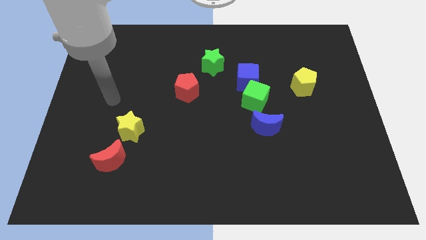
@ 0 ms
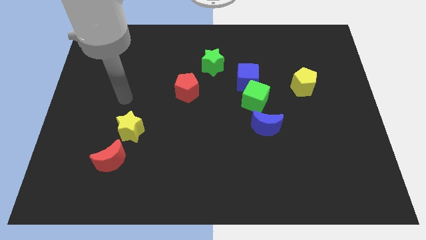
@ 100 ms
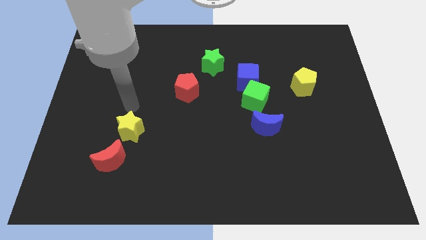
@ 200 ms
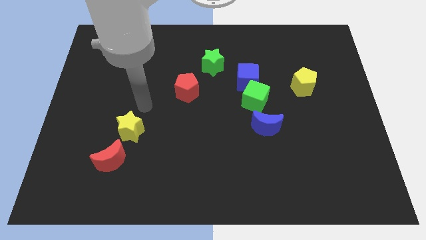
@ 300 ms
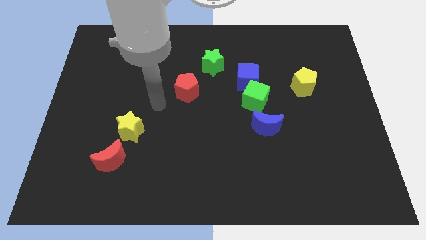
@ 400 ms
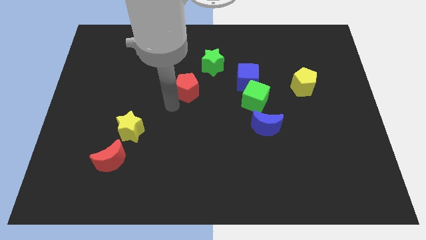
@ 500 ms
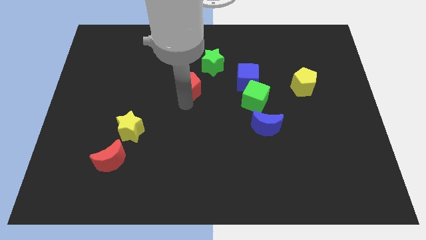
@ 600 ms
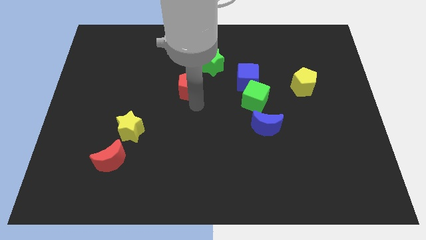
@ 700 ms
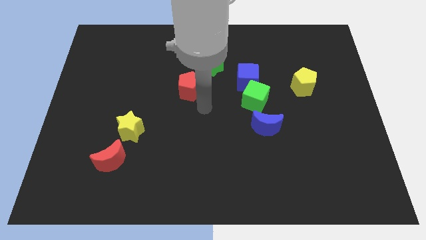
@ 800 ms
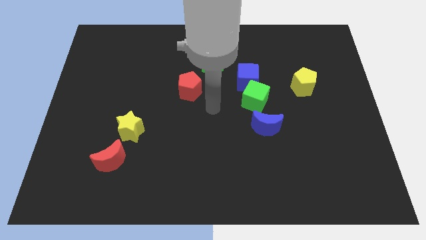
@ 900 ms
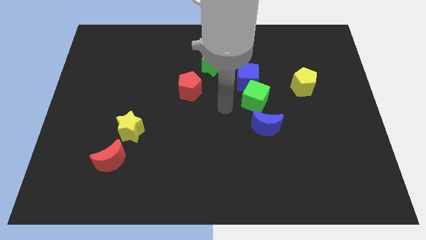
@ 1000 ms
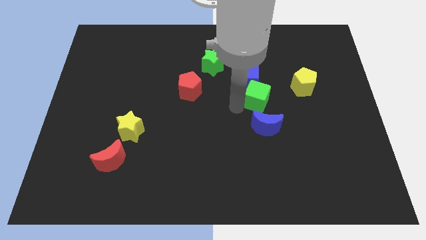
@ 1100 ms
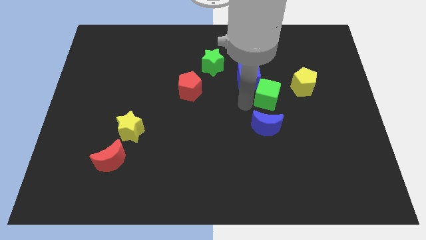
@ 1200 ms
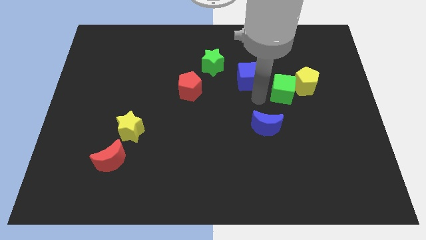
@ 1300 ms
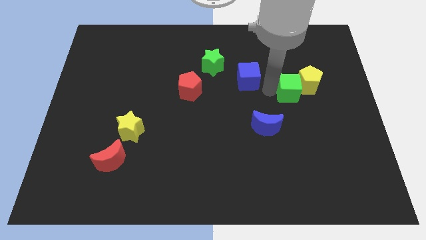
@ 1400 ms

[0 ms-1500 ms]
separate the blue cube from the green cube

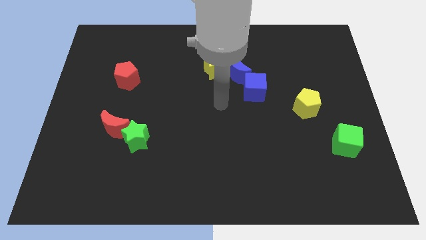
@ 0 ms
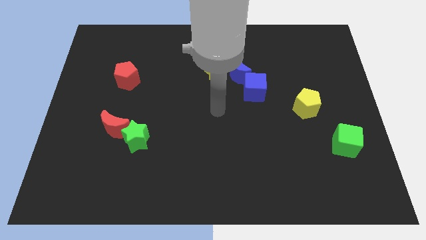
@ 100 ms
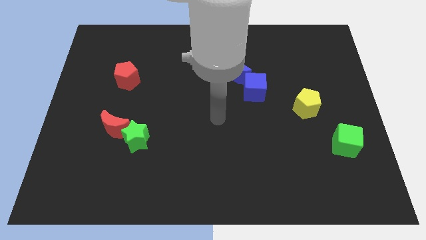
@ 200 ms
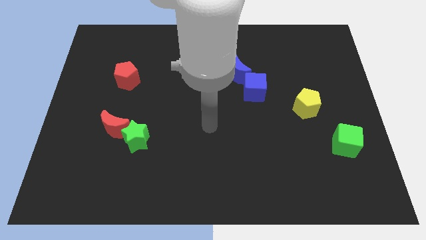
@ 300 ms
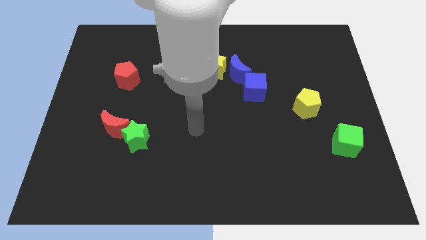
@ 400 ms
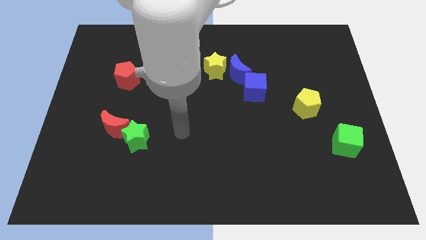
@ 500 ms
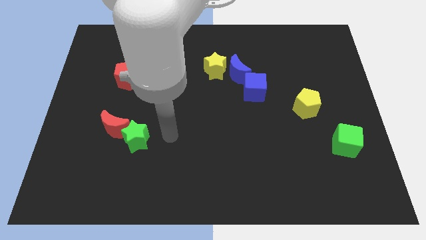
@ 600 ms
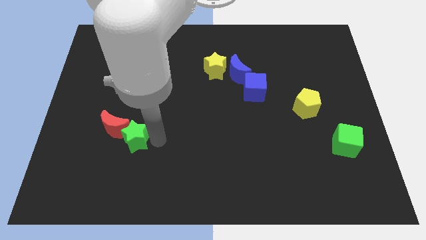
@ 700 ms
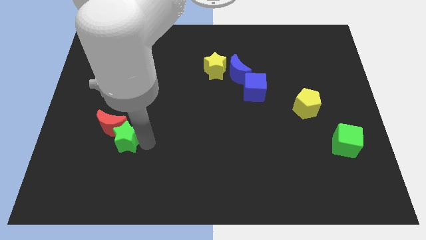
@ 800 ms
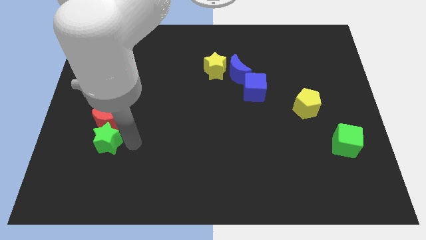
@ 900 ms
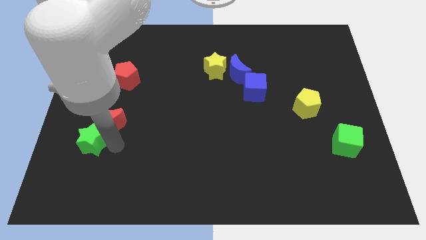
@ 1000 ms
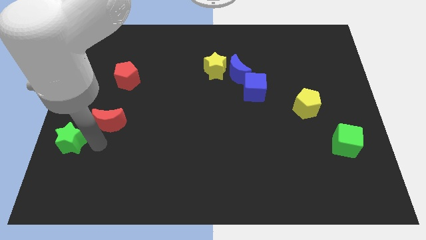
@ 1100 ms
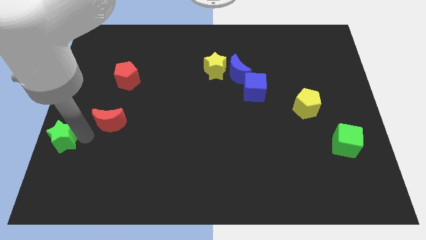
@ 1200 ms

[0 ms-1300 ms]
pull the red moon apart from the green star

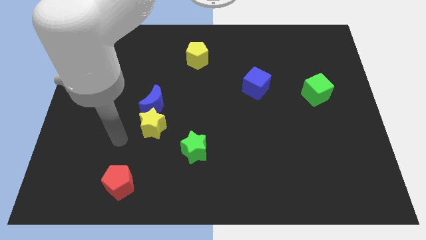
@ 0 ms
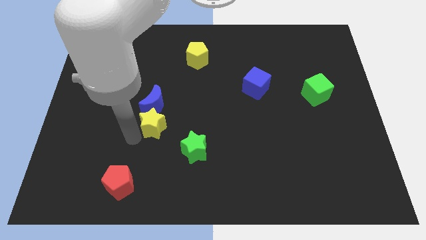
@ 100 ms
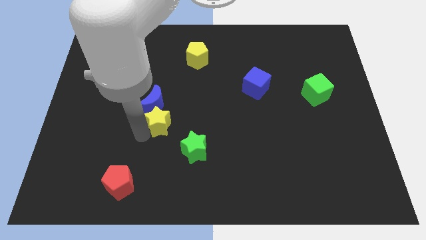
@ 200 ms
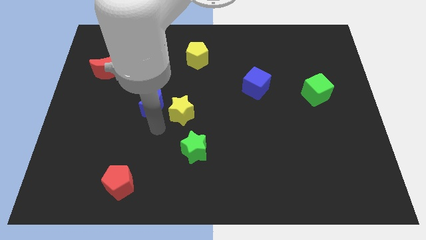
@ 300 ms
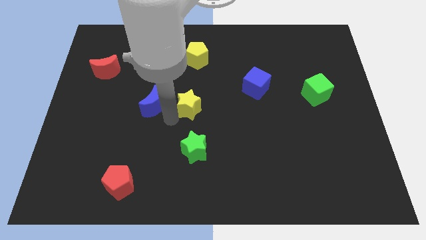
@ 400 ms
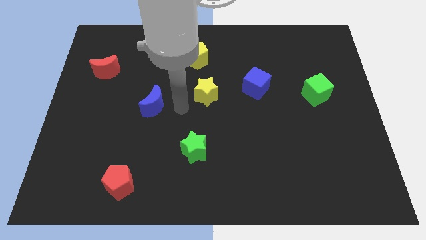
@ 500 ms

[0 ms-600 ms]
move the blue moon away from the yellow star

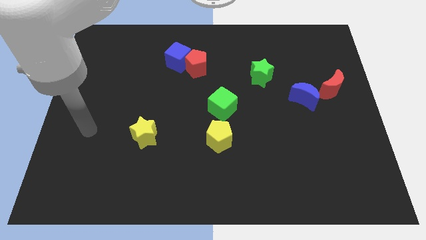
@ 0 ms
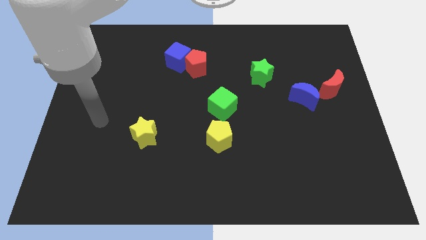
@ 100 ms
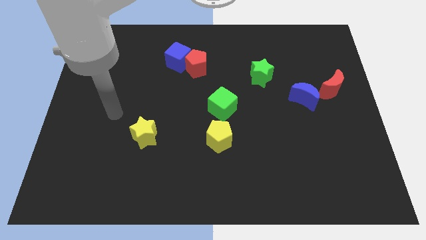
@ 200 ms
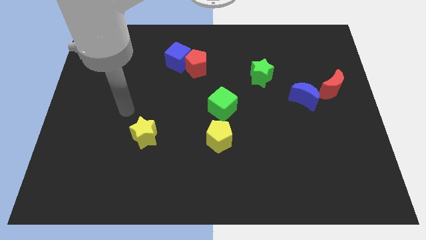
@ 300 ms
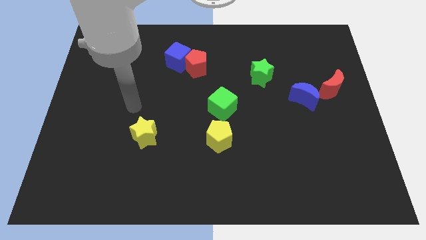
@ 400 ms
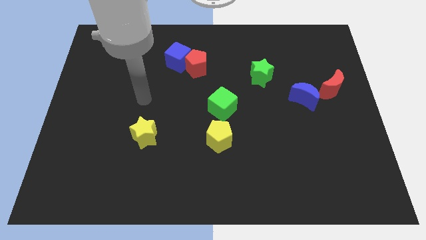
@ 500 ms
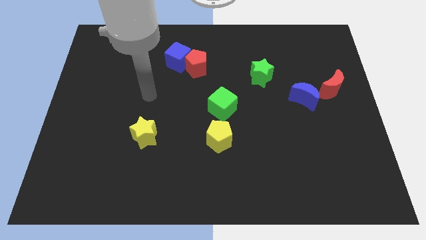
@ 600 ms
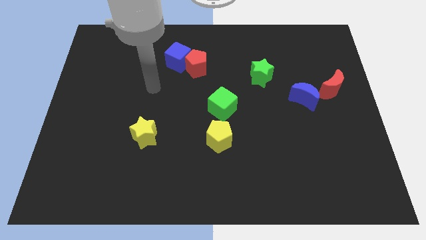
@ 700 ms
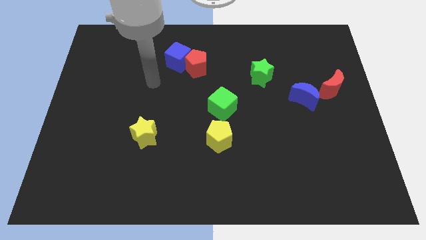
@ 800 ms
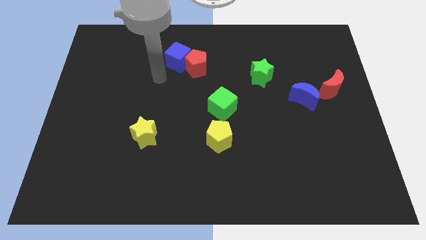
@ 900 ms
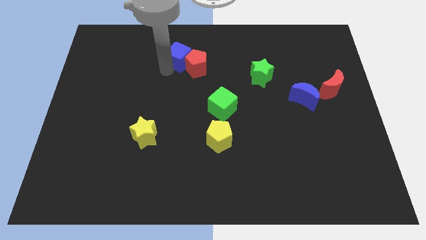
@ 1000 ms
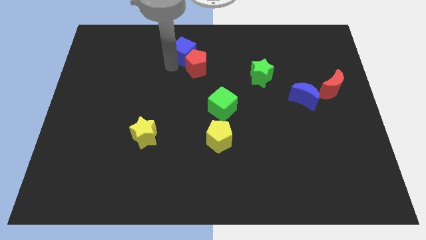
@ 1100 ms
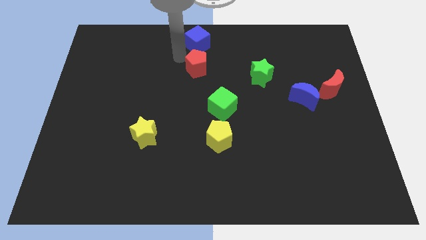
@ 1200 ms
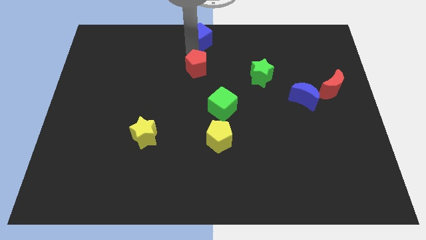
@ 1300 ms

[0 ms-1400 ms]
move the red pentagon away from the blue cube

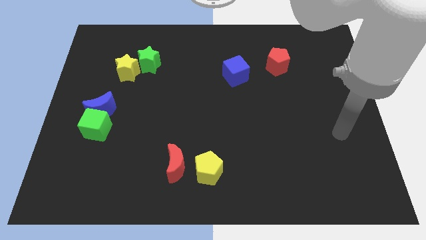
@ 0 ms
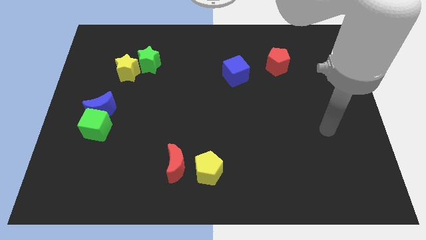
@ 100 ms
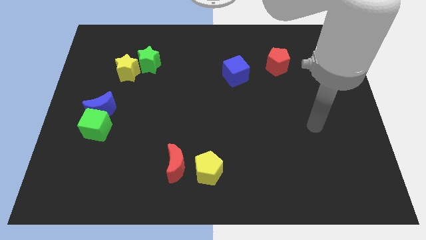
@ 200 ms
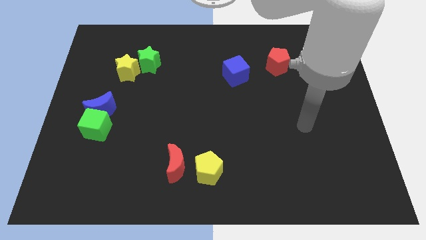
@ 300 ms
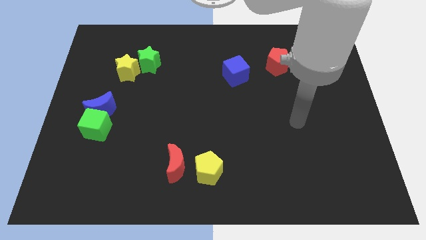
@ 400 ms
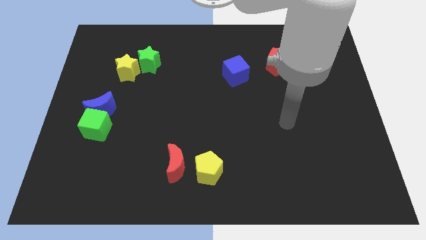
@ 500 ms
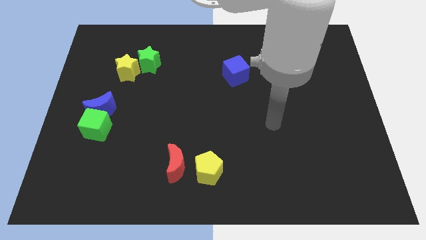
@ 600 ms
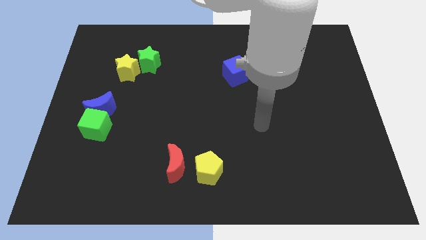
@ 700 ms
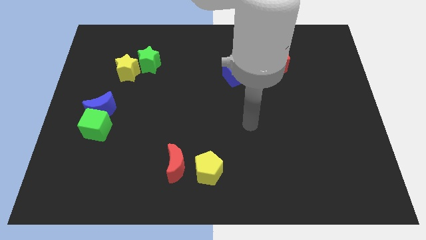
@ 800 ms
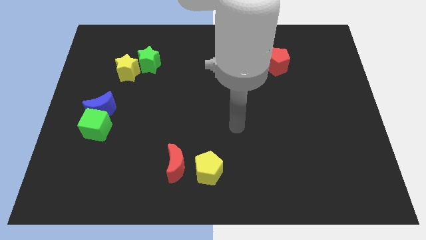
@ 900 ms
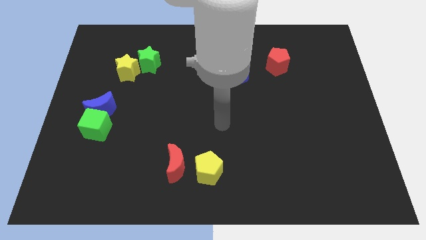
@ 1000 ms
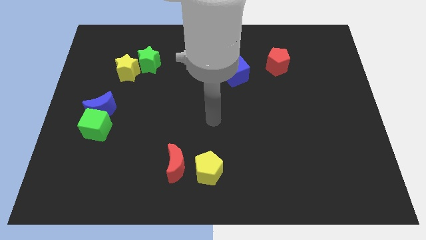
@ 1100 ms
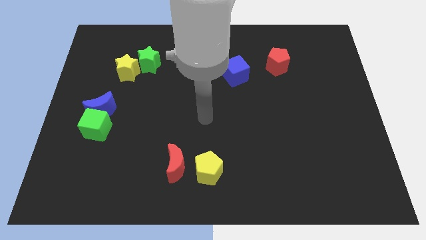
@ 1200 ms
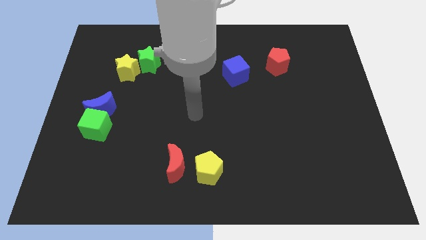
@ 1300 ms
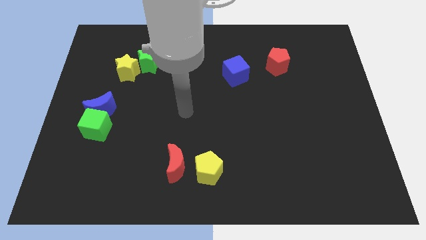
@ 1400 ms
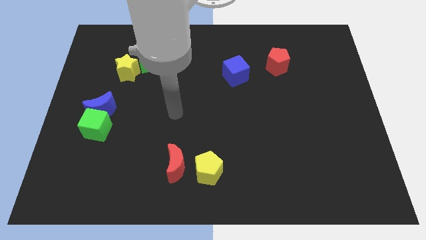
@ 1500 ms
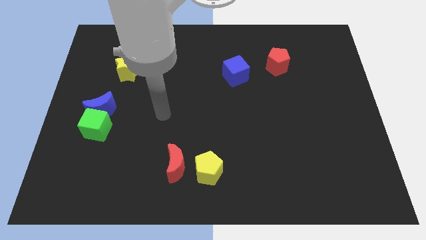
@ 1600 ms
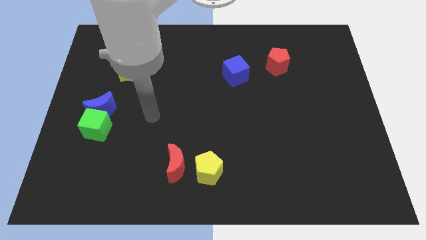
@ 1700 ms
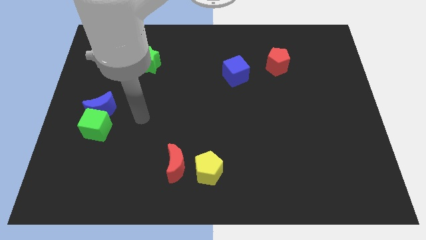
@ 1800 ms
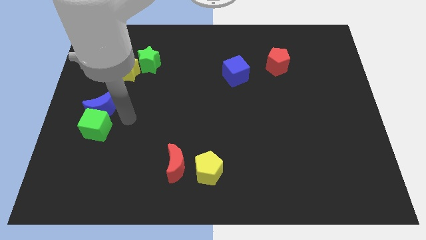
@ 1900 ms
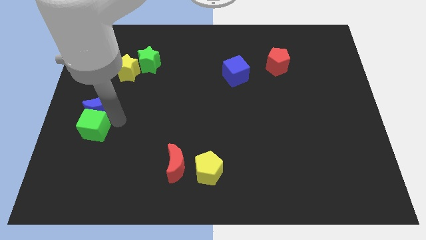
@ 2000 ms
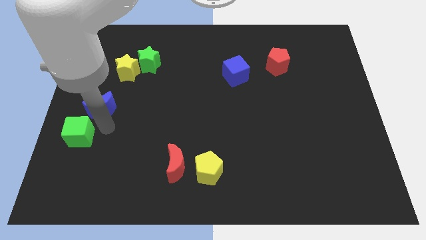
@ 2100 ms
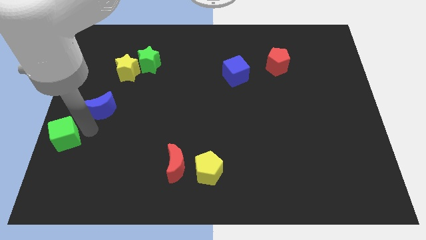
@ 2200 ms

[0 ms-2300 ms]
pull the blue moon apart from the green cube

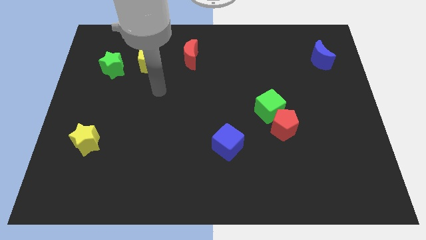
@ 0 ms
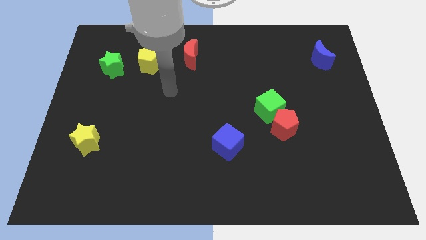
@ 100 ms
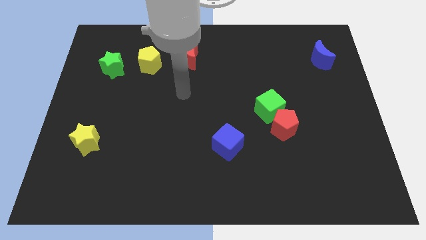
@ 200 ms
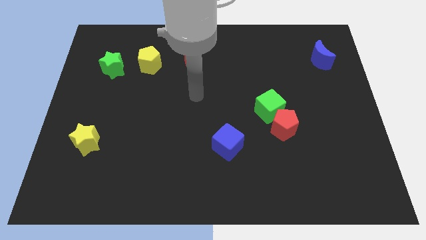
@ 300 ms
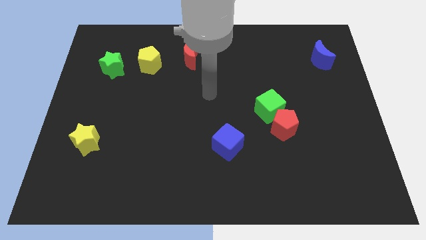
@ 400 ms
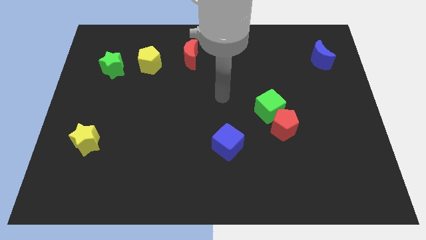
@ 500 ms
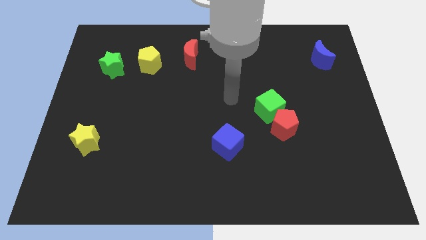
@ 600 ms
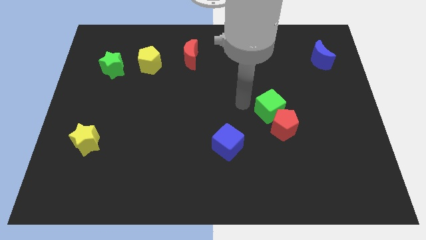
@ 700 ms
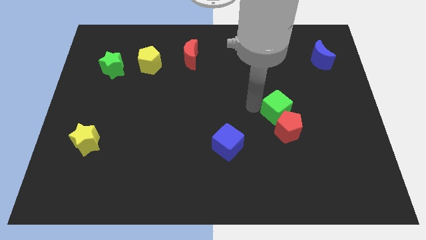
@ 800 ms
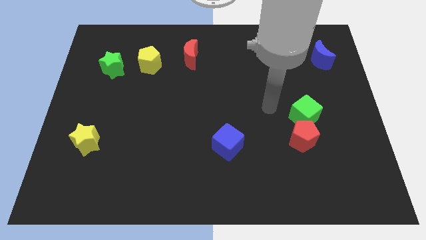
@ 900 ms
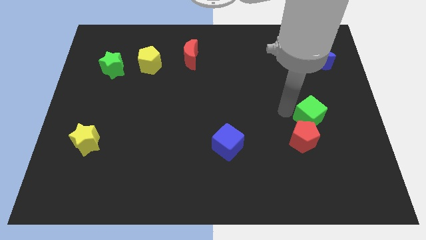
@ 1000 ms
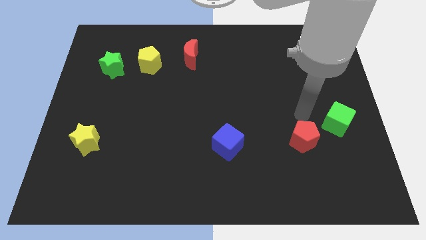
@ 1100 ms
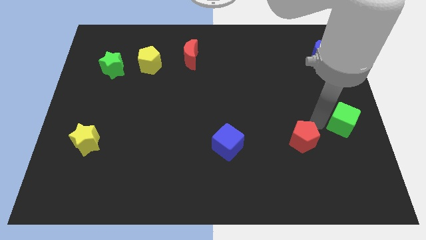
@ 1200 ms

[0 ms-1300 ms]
pull the red pentagon apart from the green cube

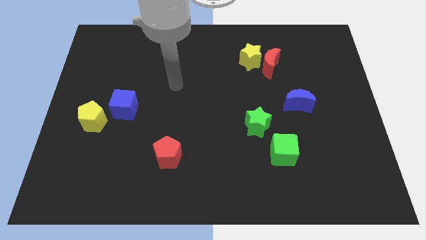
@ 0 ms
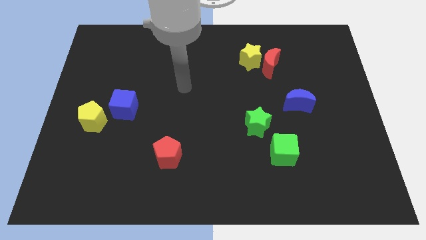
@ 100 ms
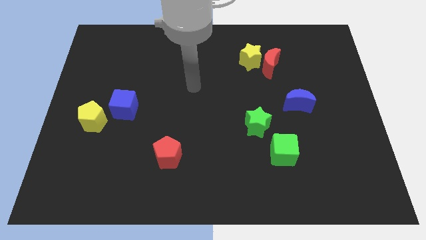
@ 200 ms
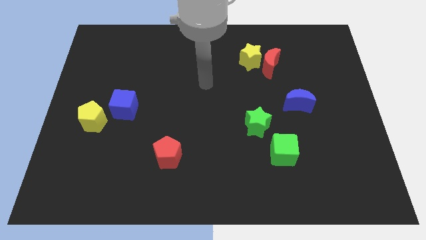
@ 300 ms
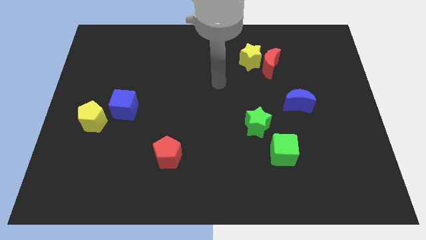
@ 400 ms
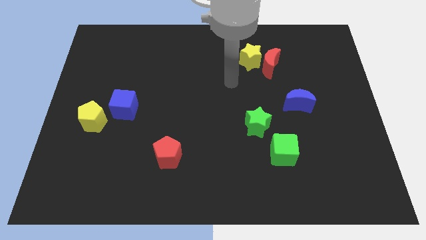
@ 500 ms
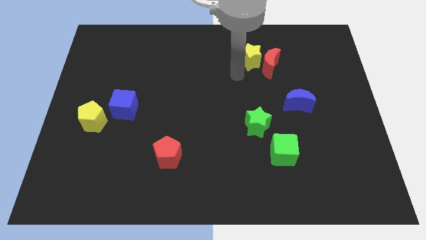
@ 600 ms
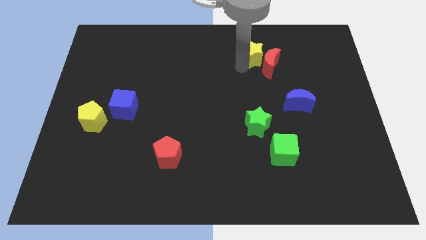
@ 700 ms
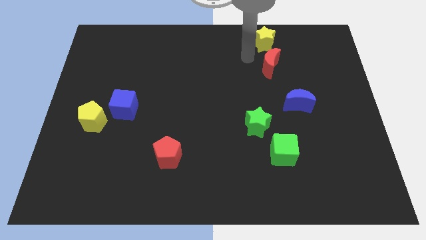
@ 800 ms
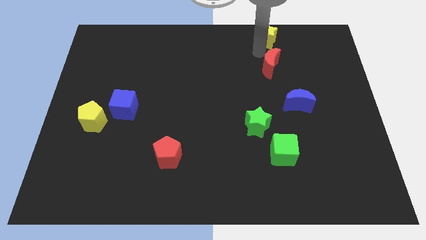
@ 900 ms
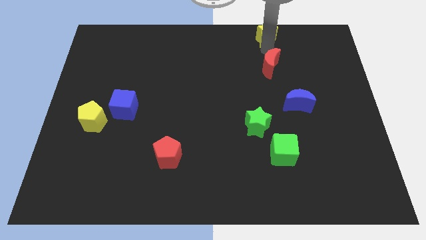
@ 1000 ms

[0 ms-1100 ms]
pull the red moon apart from the yellow star
